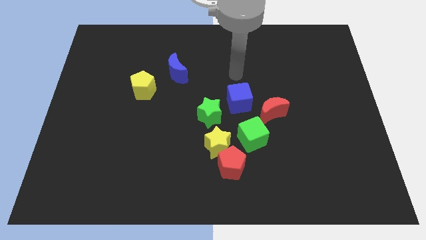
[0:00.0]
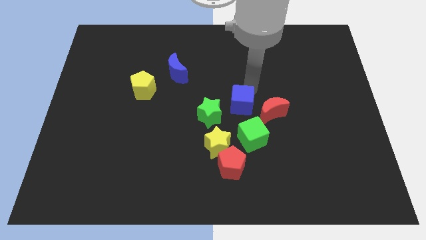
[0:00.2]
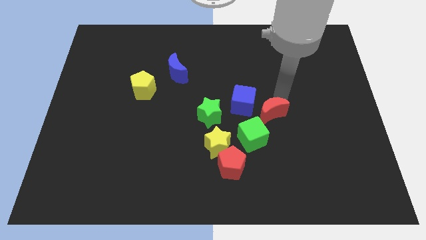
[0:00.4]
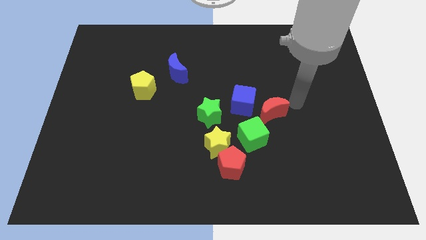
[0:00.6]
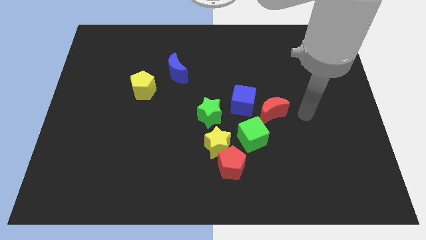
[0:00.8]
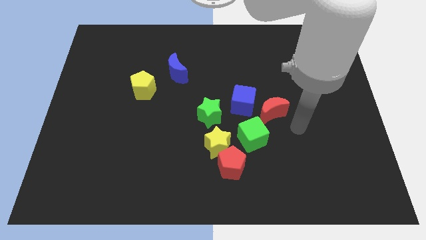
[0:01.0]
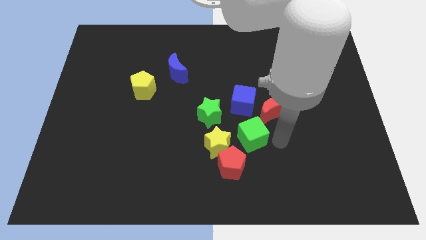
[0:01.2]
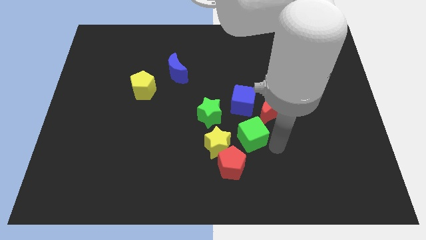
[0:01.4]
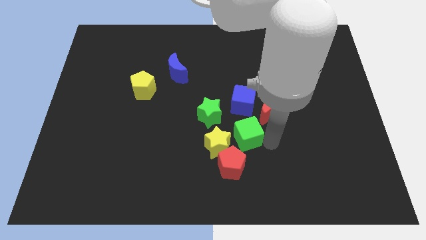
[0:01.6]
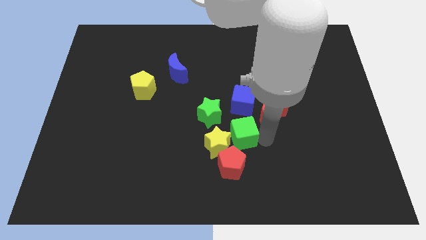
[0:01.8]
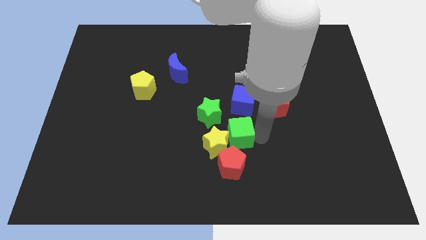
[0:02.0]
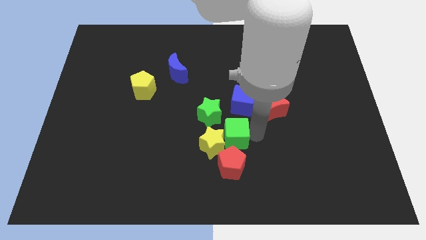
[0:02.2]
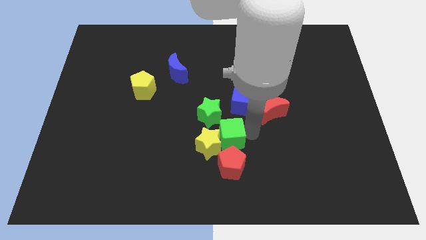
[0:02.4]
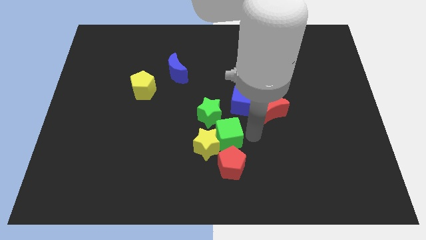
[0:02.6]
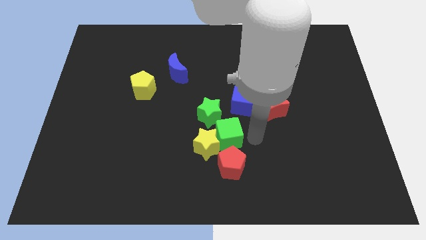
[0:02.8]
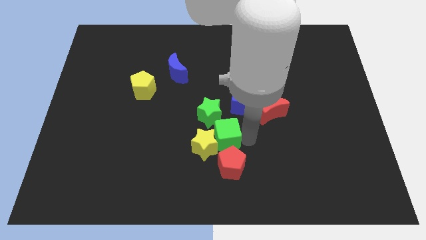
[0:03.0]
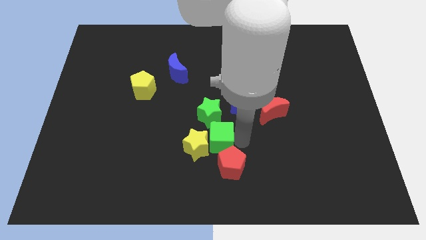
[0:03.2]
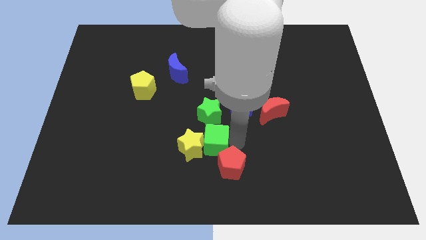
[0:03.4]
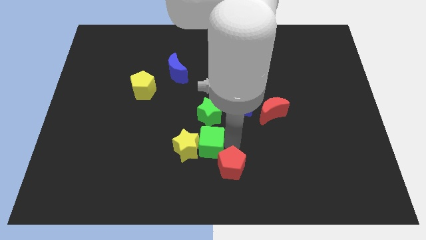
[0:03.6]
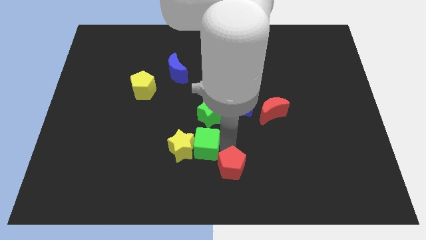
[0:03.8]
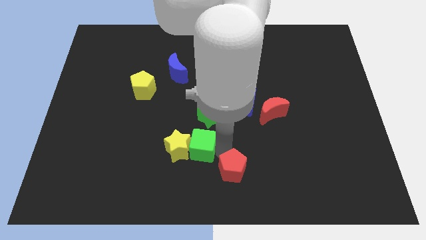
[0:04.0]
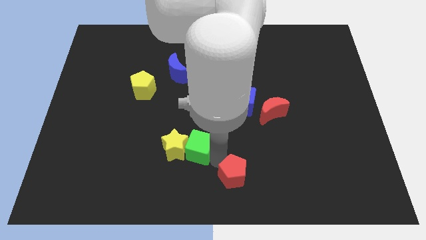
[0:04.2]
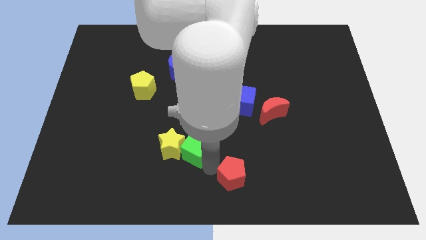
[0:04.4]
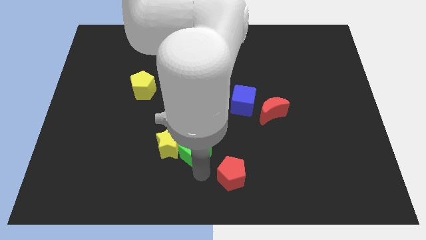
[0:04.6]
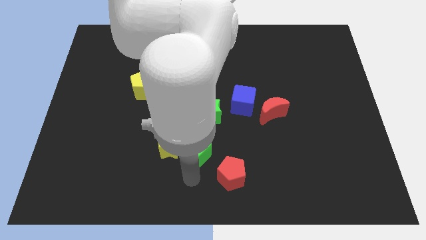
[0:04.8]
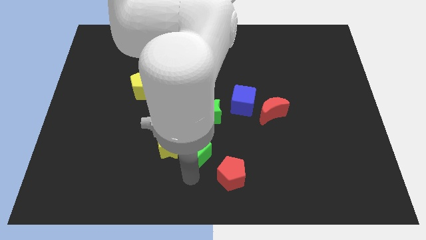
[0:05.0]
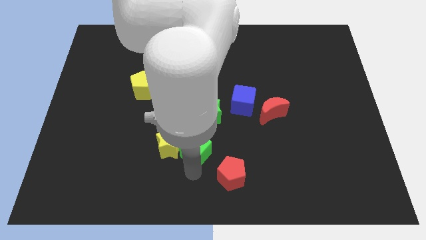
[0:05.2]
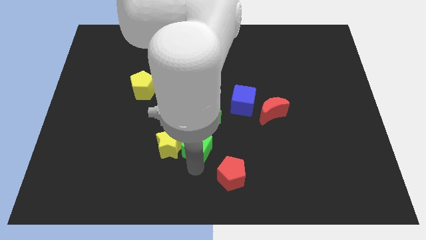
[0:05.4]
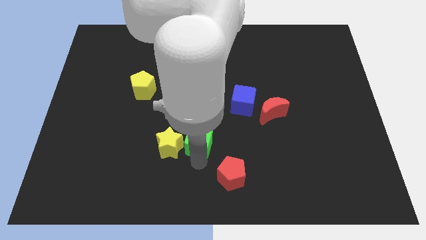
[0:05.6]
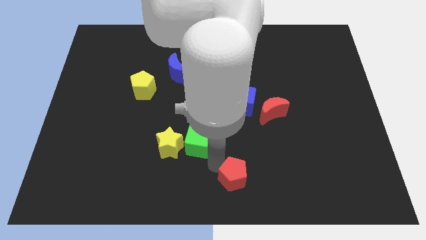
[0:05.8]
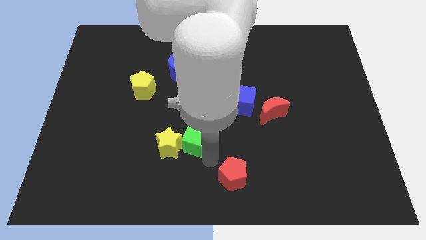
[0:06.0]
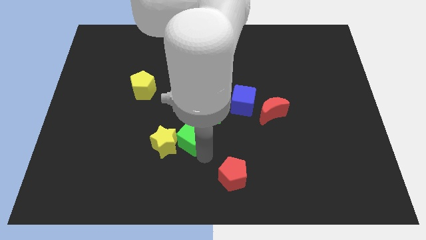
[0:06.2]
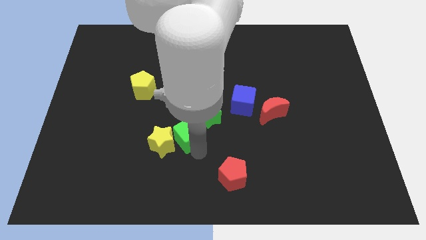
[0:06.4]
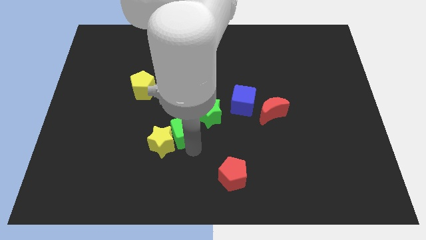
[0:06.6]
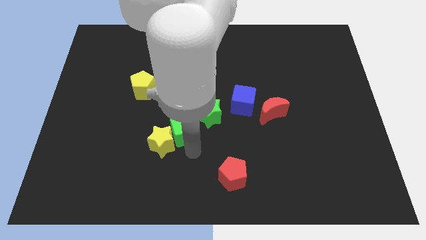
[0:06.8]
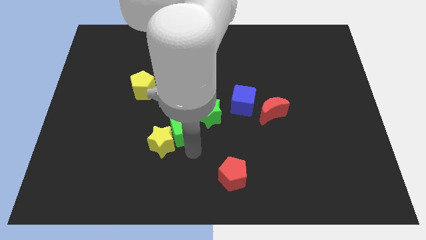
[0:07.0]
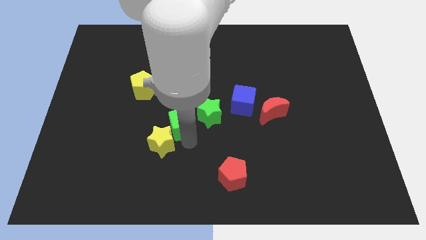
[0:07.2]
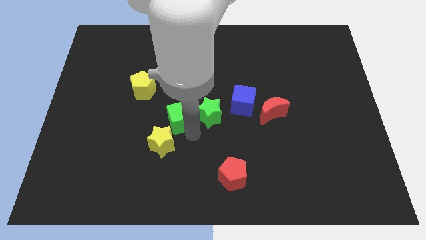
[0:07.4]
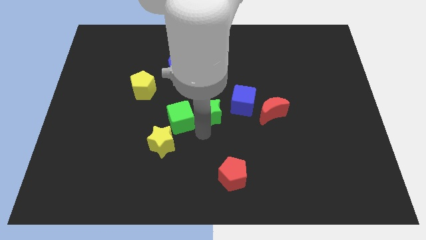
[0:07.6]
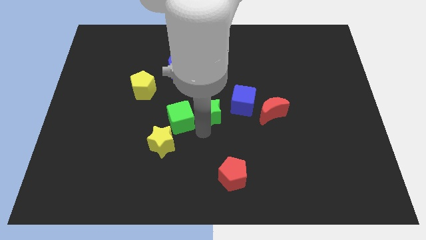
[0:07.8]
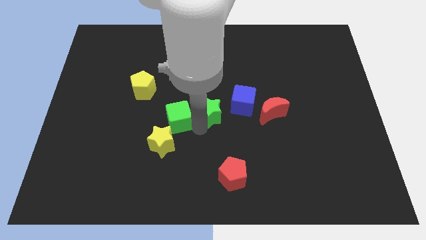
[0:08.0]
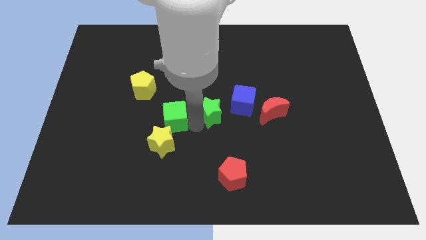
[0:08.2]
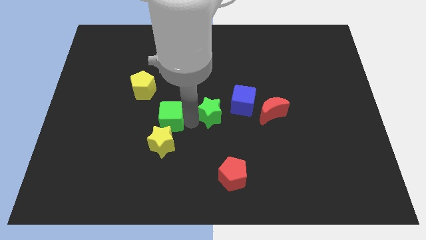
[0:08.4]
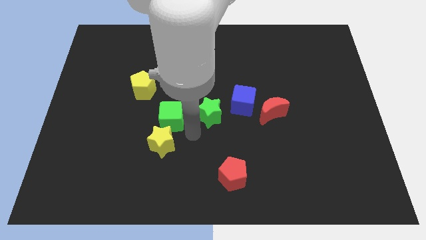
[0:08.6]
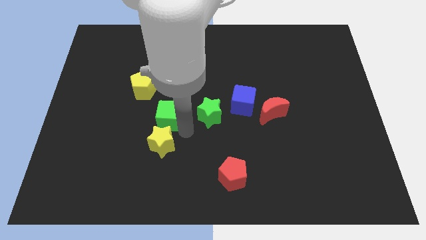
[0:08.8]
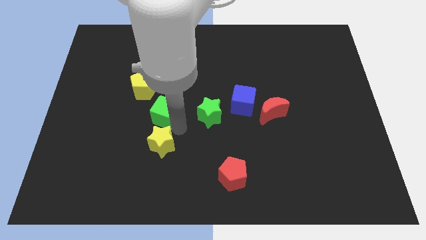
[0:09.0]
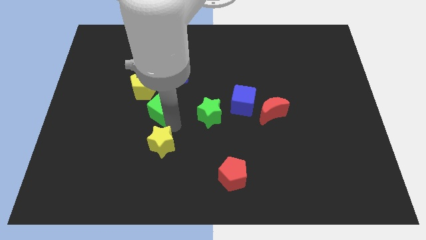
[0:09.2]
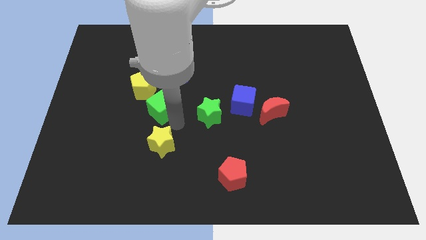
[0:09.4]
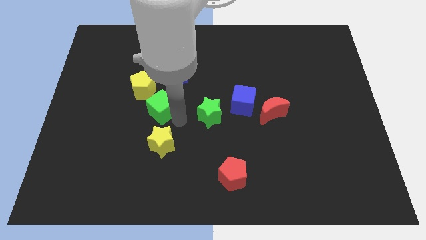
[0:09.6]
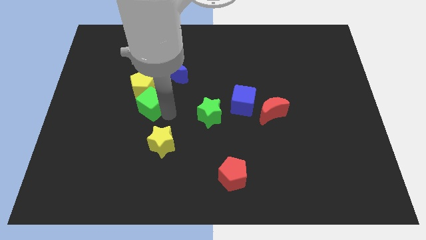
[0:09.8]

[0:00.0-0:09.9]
put the green cube next to the yellow pentagon

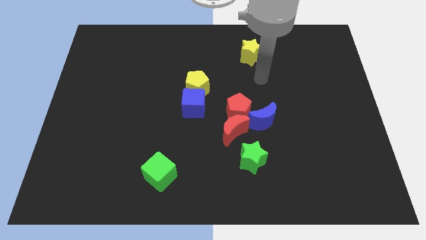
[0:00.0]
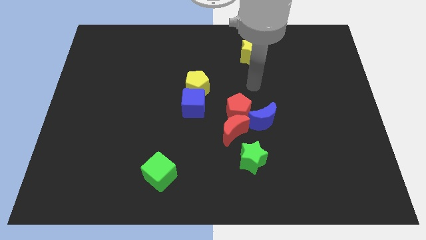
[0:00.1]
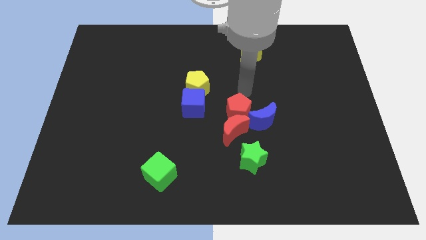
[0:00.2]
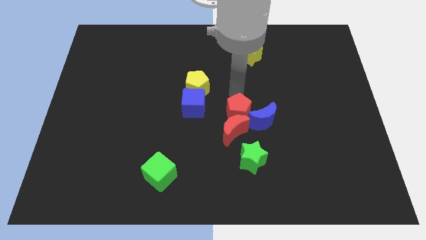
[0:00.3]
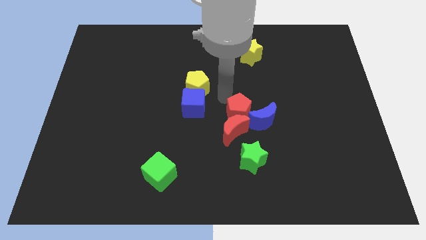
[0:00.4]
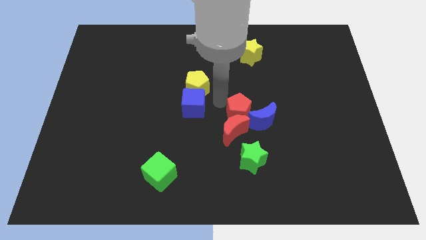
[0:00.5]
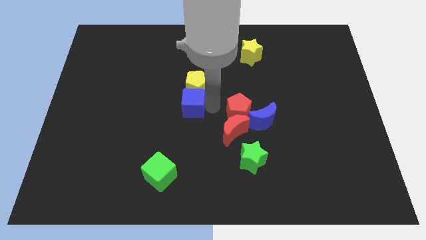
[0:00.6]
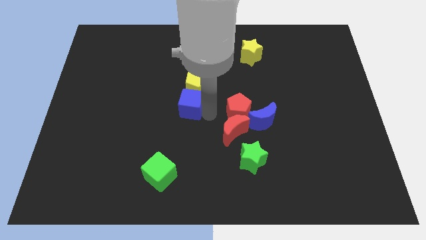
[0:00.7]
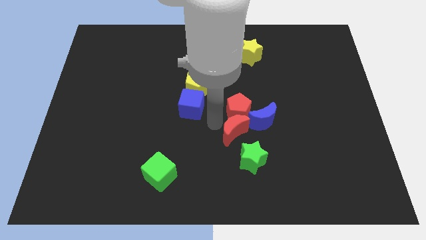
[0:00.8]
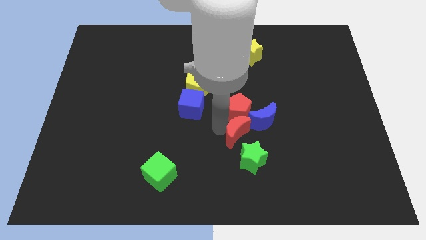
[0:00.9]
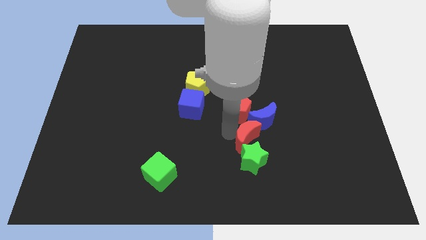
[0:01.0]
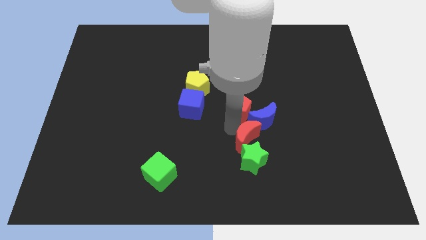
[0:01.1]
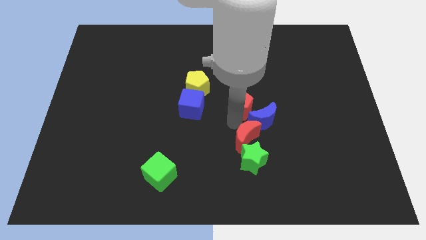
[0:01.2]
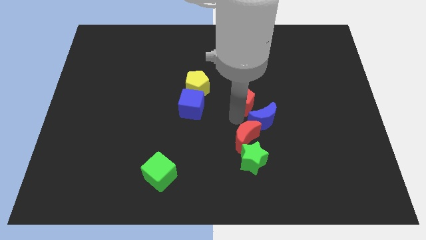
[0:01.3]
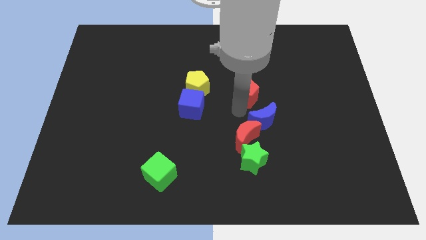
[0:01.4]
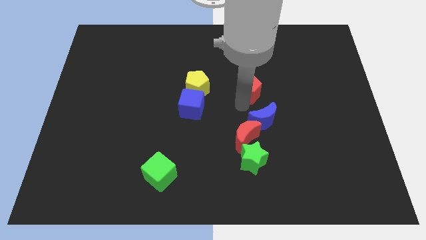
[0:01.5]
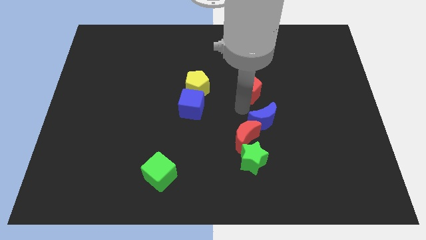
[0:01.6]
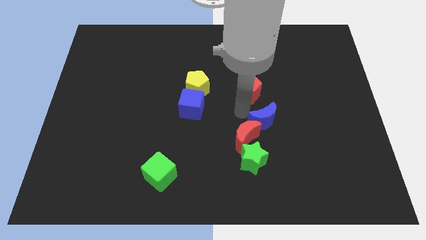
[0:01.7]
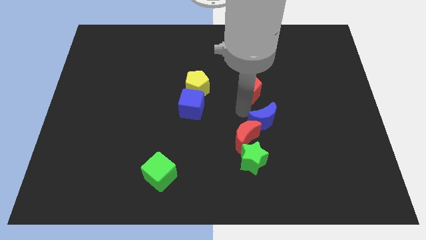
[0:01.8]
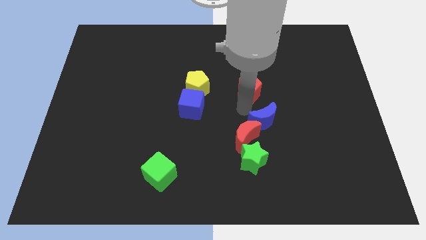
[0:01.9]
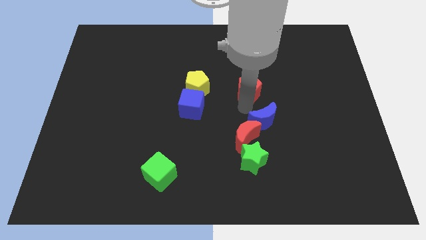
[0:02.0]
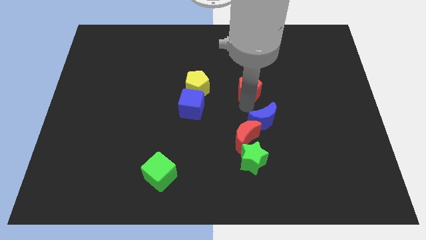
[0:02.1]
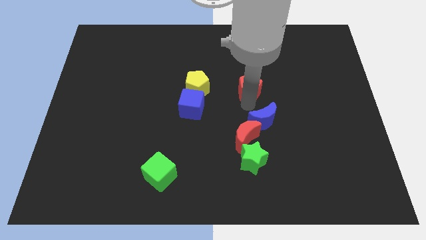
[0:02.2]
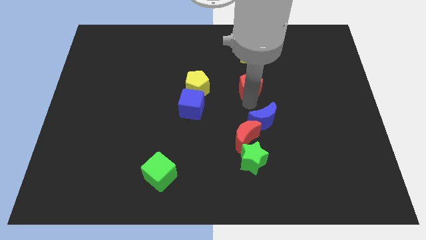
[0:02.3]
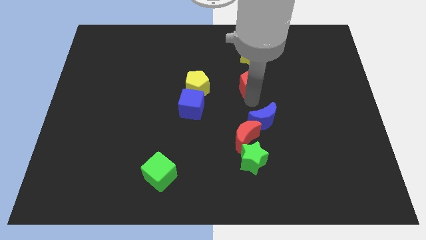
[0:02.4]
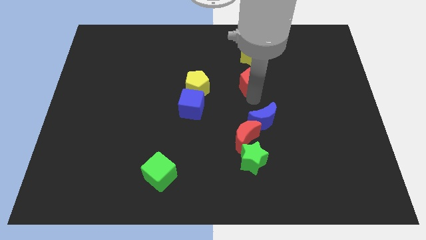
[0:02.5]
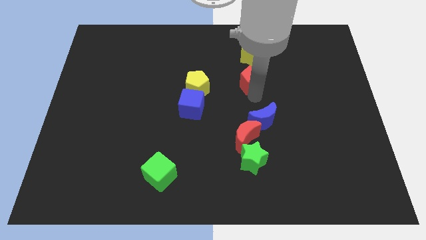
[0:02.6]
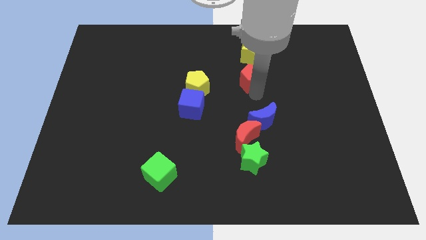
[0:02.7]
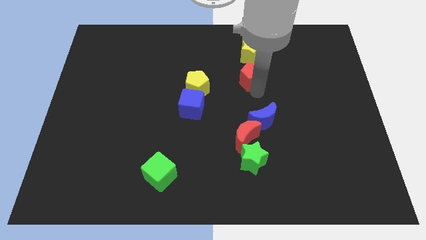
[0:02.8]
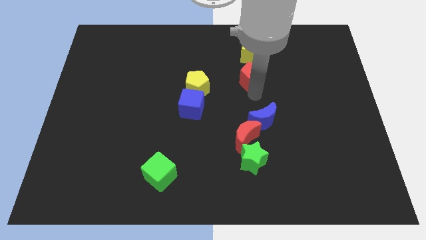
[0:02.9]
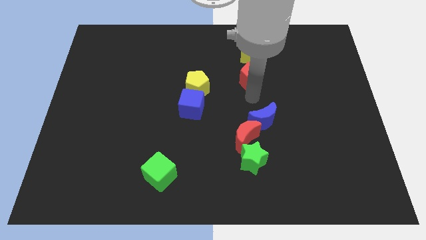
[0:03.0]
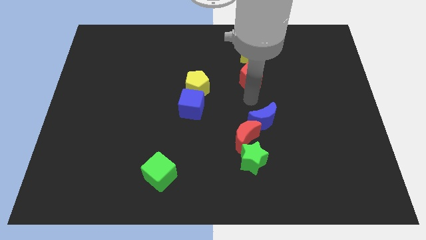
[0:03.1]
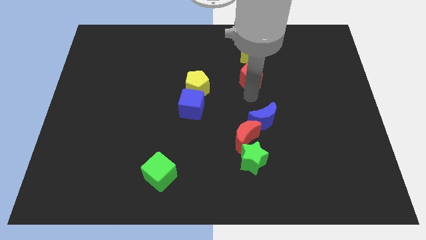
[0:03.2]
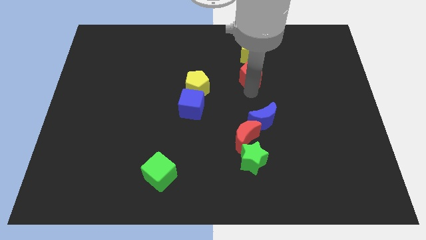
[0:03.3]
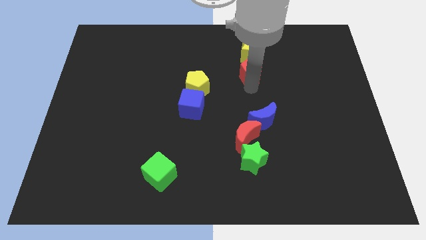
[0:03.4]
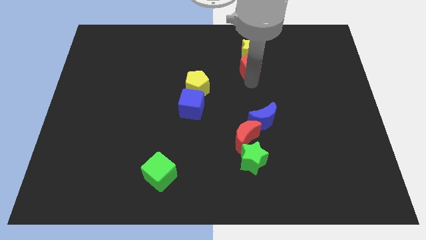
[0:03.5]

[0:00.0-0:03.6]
move the red pentagon towards the yellow star
